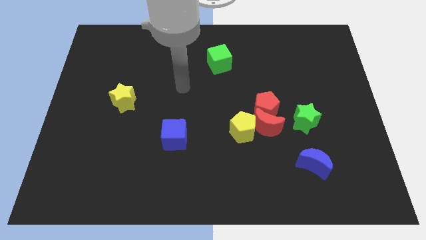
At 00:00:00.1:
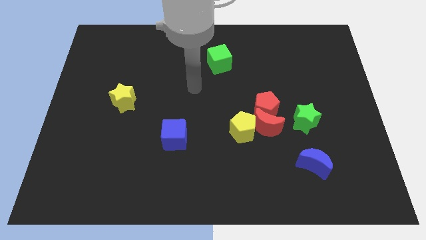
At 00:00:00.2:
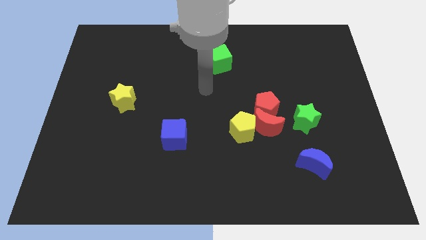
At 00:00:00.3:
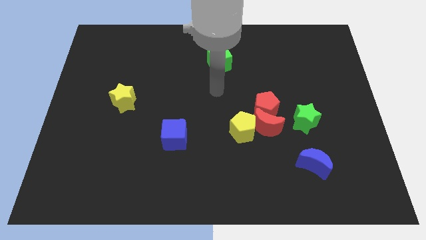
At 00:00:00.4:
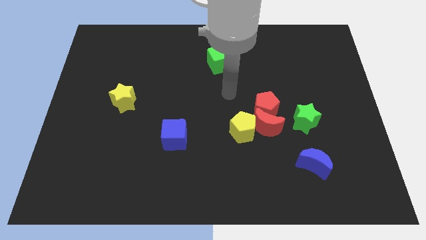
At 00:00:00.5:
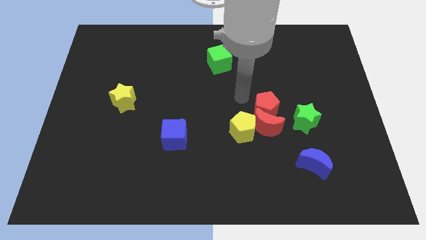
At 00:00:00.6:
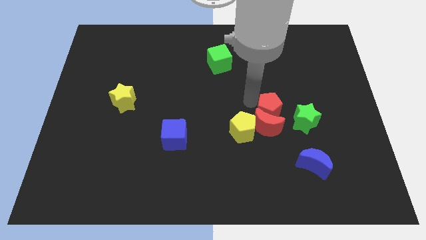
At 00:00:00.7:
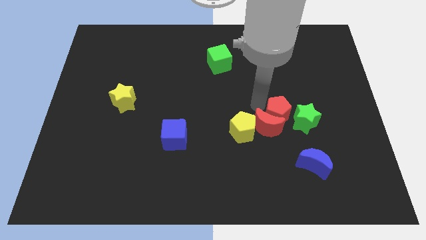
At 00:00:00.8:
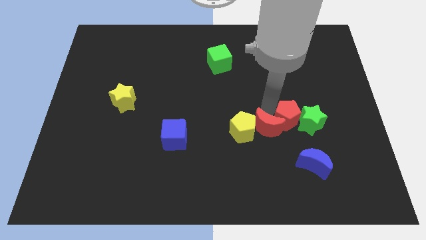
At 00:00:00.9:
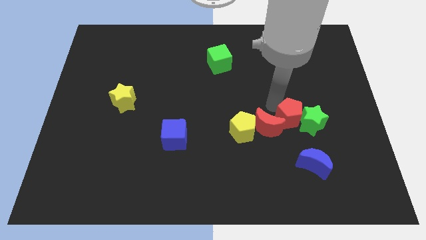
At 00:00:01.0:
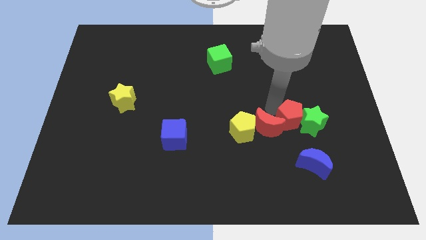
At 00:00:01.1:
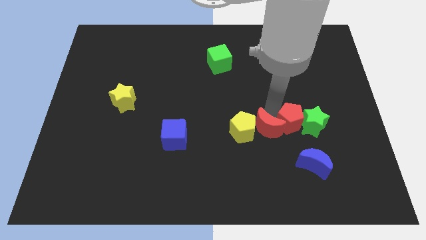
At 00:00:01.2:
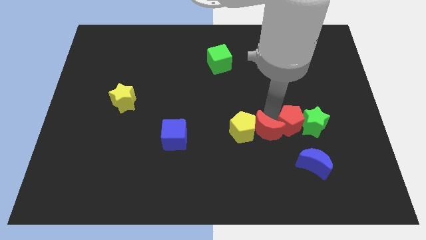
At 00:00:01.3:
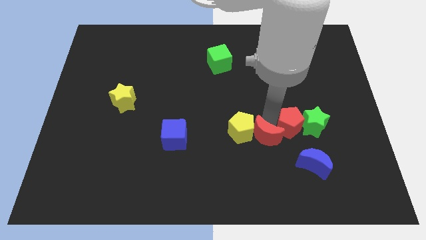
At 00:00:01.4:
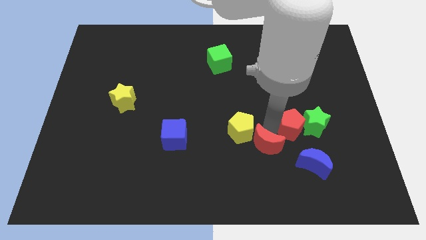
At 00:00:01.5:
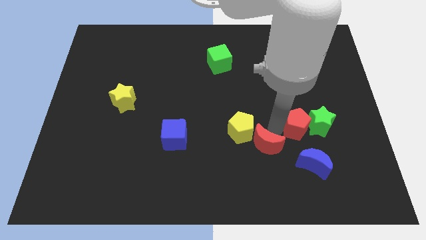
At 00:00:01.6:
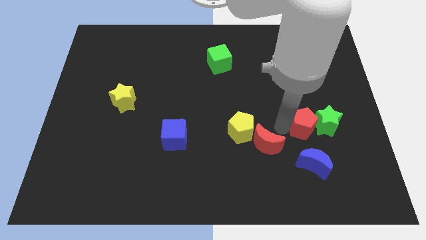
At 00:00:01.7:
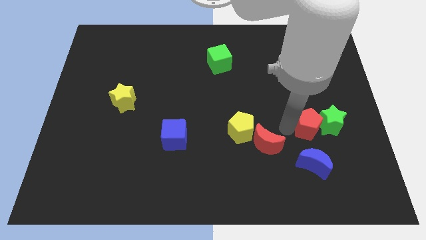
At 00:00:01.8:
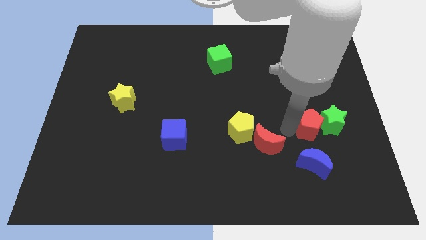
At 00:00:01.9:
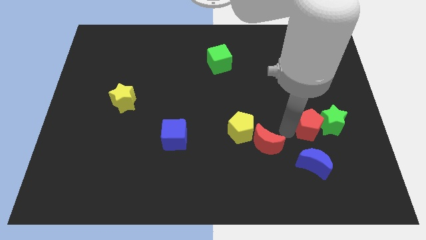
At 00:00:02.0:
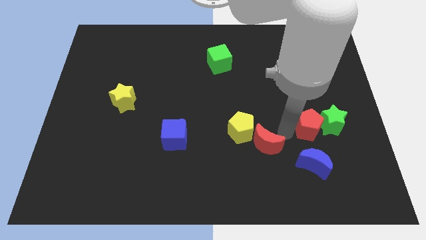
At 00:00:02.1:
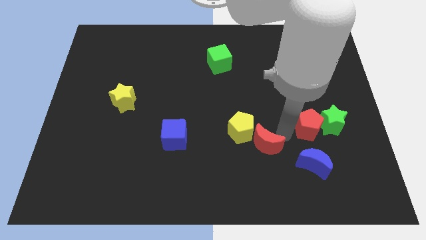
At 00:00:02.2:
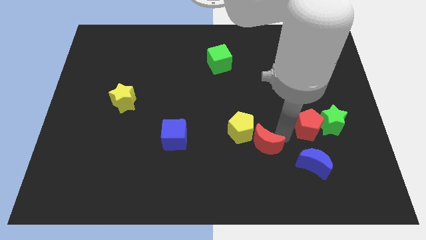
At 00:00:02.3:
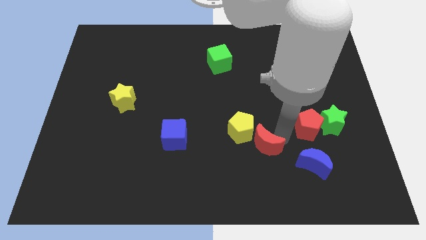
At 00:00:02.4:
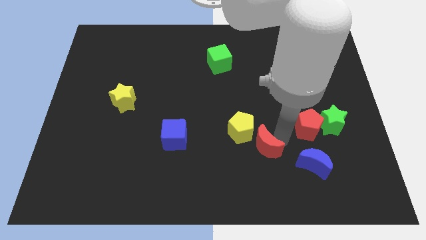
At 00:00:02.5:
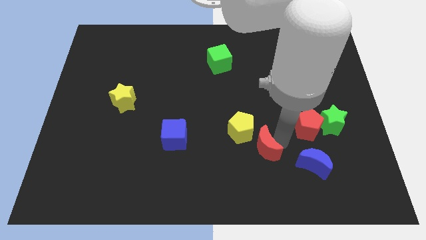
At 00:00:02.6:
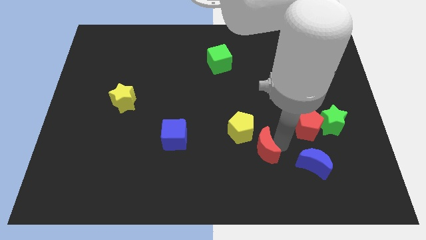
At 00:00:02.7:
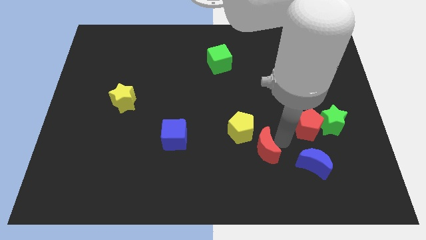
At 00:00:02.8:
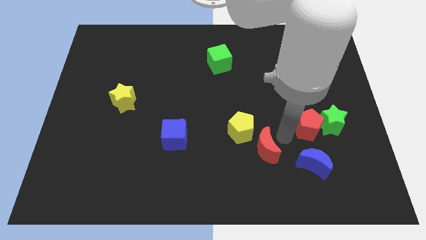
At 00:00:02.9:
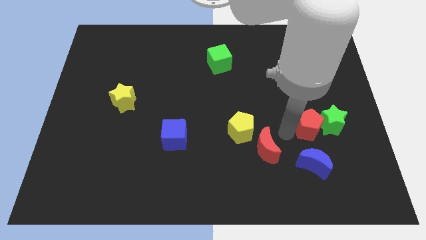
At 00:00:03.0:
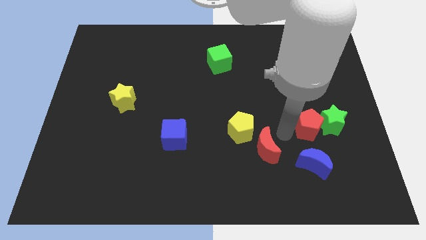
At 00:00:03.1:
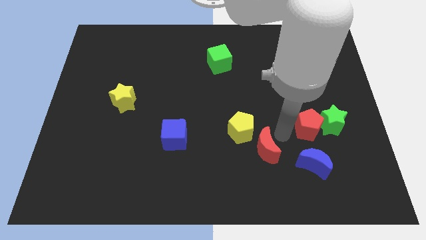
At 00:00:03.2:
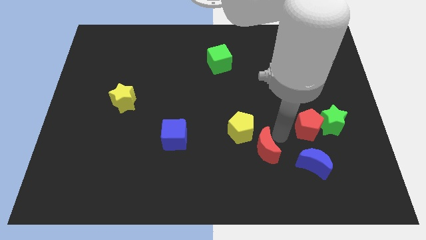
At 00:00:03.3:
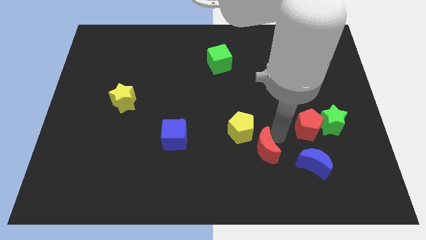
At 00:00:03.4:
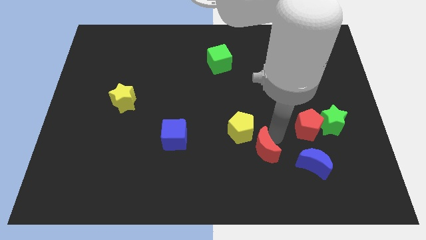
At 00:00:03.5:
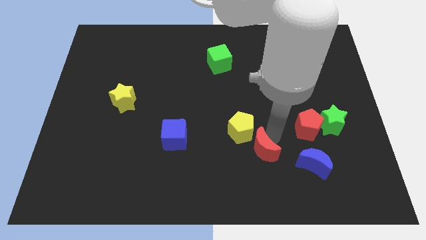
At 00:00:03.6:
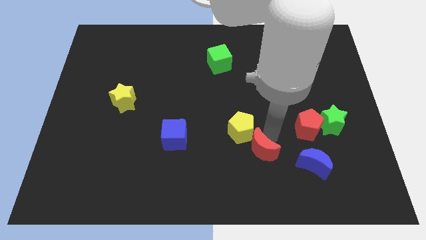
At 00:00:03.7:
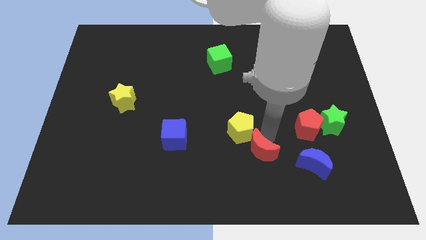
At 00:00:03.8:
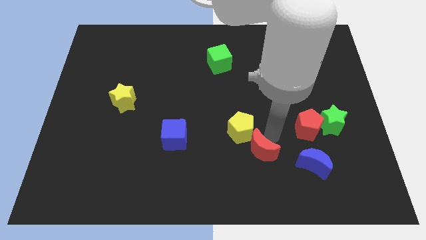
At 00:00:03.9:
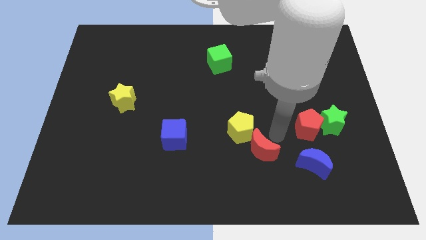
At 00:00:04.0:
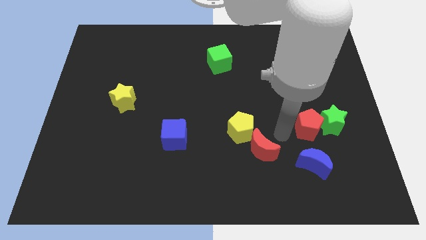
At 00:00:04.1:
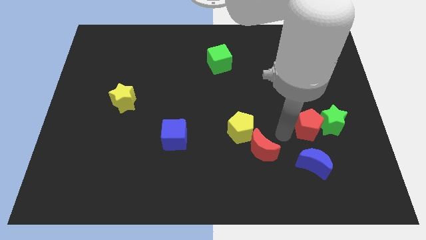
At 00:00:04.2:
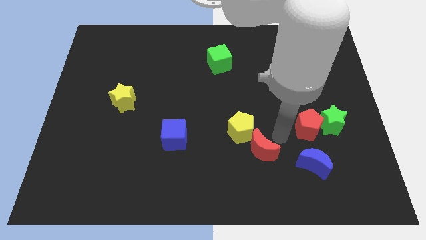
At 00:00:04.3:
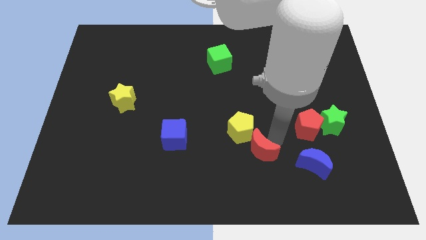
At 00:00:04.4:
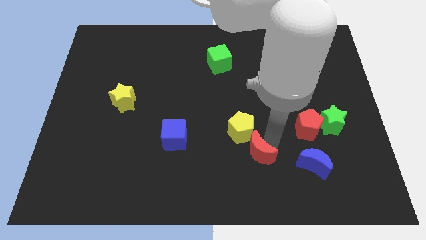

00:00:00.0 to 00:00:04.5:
separate the red moon from the red pentagon, yellow pentagon, and green star

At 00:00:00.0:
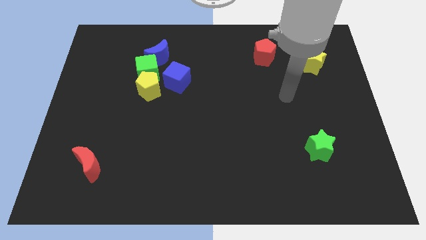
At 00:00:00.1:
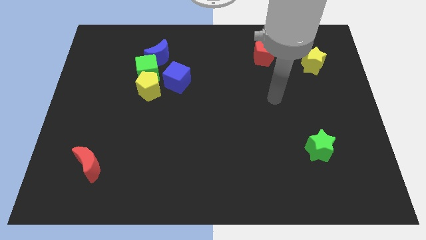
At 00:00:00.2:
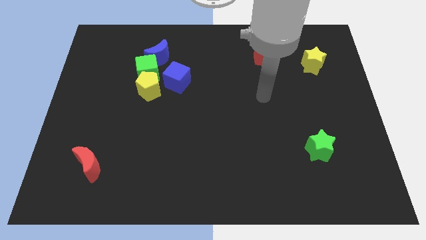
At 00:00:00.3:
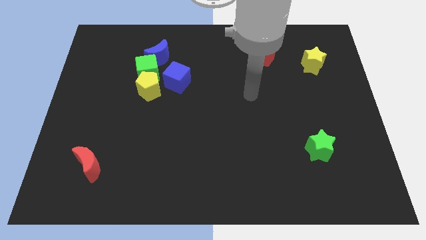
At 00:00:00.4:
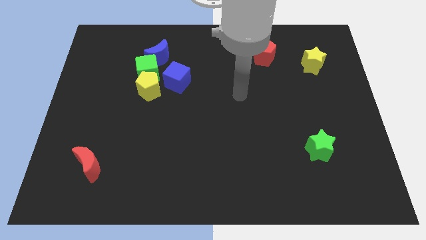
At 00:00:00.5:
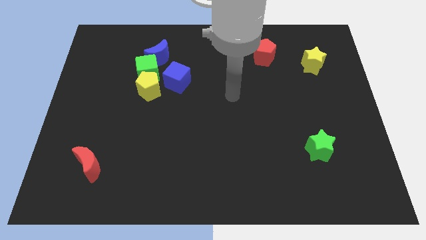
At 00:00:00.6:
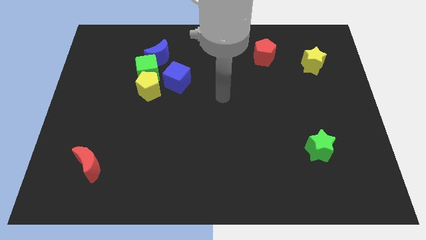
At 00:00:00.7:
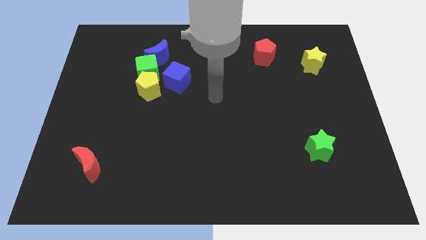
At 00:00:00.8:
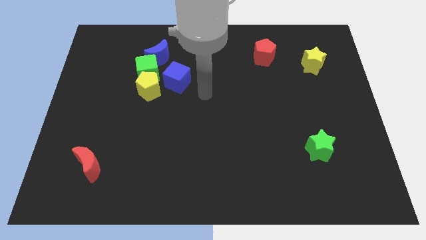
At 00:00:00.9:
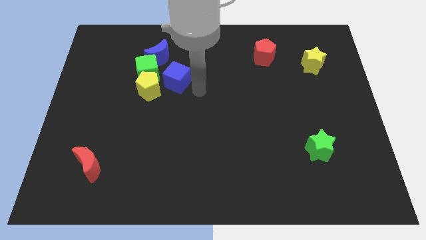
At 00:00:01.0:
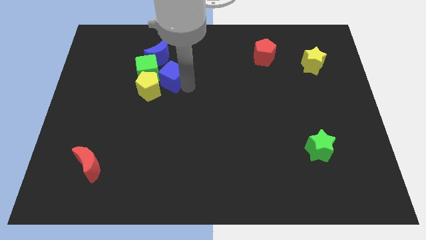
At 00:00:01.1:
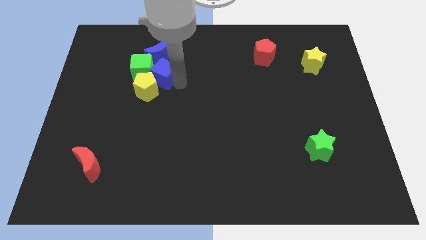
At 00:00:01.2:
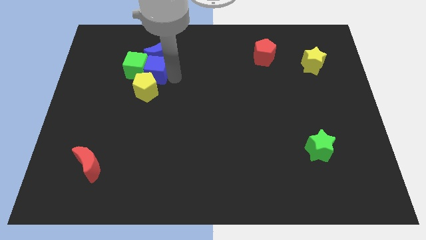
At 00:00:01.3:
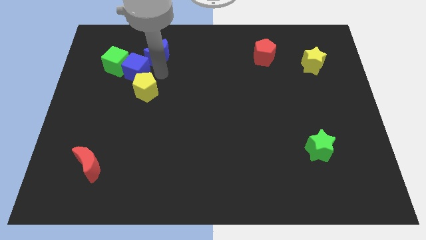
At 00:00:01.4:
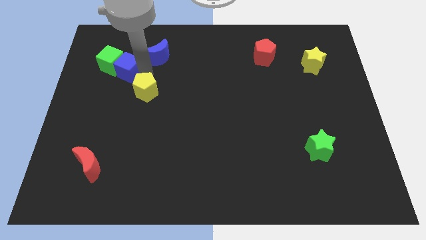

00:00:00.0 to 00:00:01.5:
pull the yellow pentagon apart from the green cube and blue cube

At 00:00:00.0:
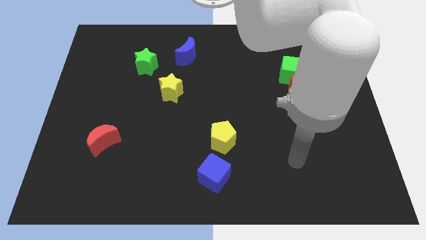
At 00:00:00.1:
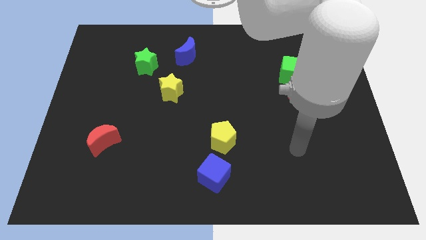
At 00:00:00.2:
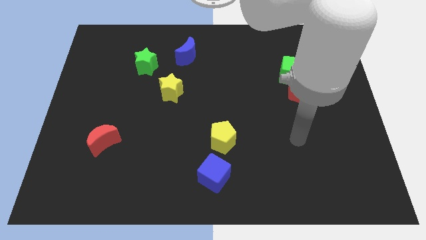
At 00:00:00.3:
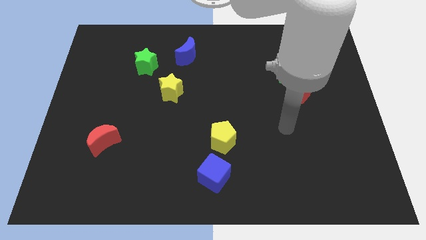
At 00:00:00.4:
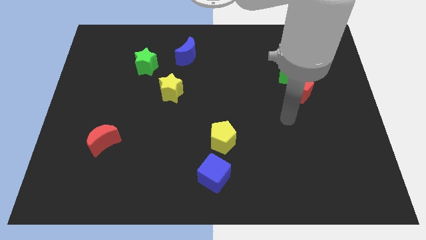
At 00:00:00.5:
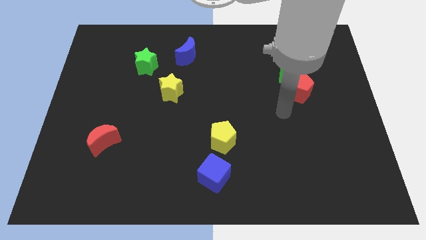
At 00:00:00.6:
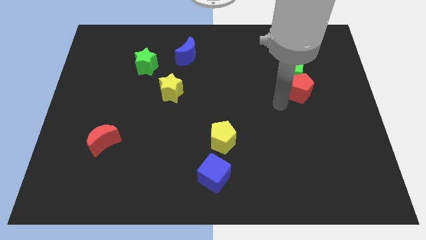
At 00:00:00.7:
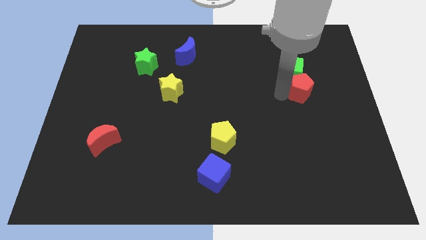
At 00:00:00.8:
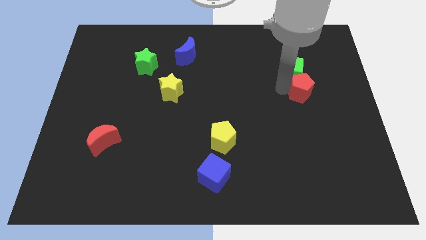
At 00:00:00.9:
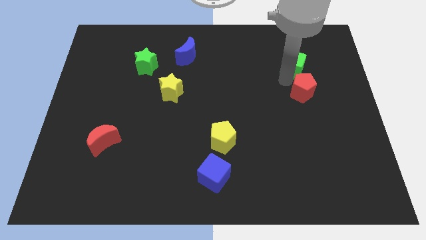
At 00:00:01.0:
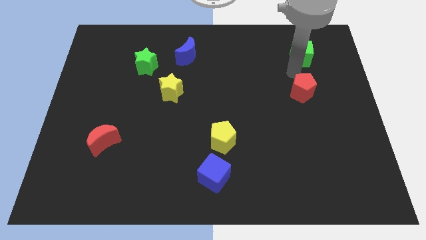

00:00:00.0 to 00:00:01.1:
move the red pentagon away from the green cube

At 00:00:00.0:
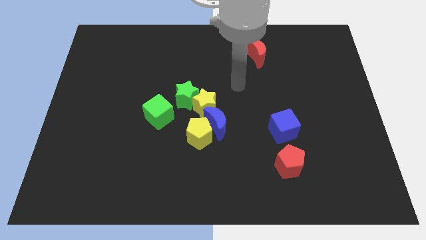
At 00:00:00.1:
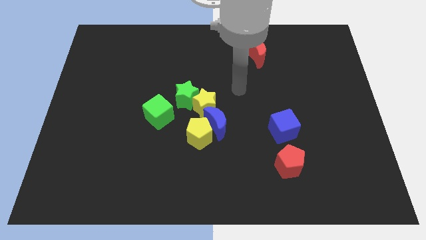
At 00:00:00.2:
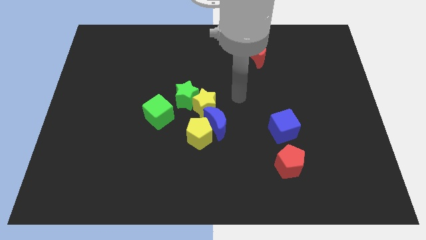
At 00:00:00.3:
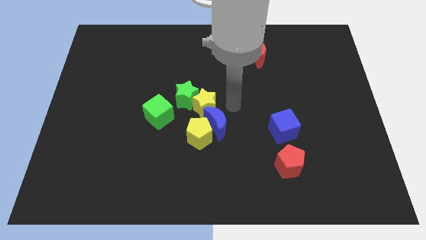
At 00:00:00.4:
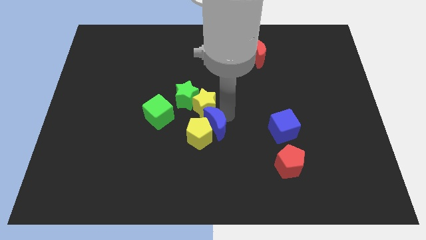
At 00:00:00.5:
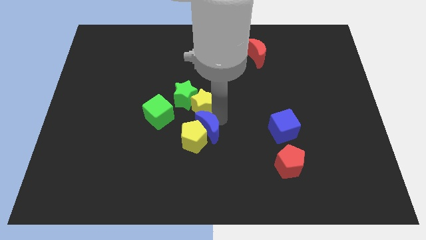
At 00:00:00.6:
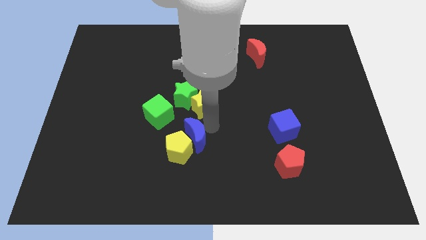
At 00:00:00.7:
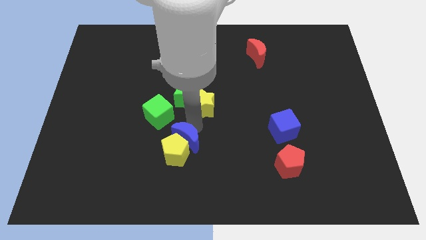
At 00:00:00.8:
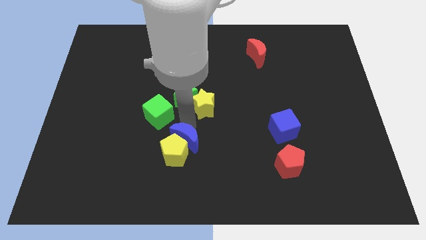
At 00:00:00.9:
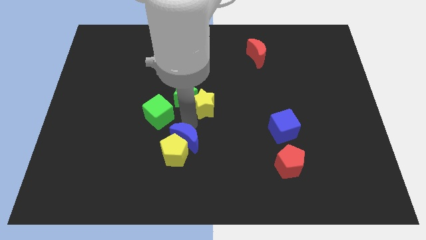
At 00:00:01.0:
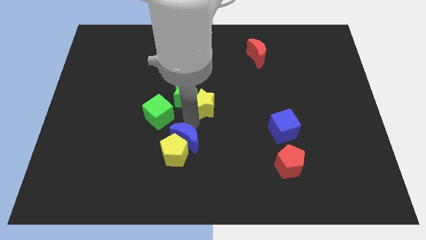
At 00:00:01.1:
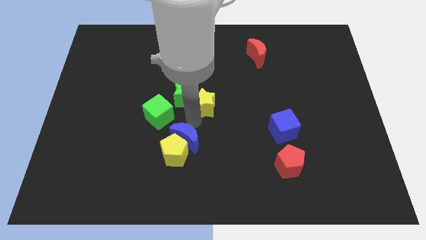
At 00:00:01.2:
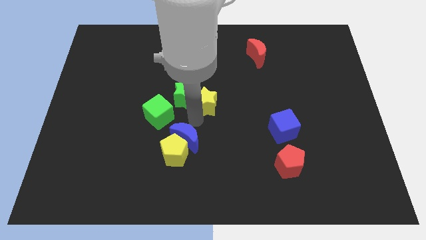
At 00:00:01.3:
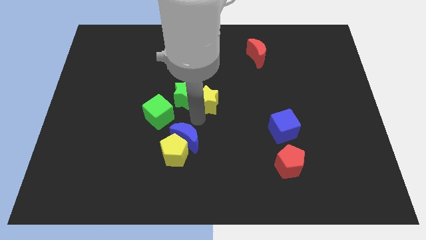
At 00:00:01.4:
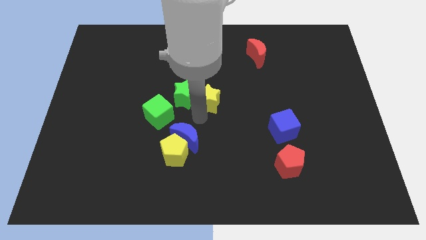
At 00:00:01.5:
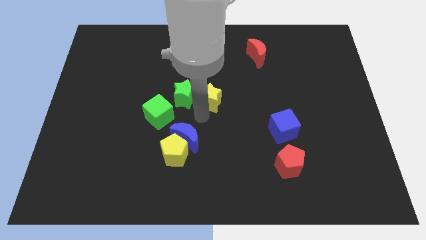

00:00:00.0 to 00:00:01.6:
separate the yellow star from the group of blocks

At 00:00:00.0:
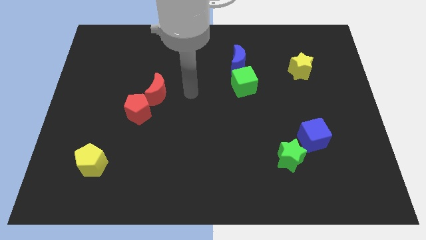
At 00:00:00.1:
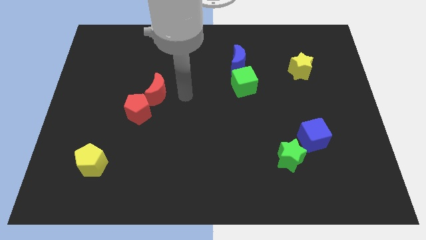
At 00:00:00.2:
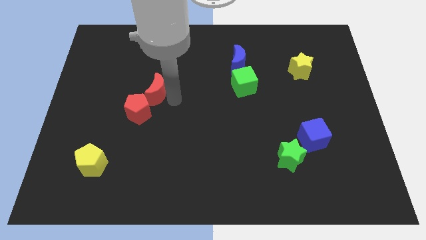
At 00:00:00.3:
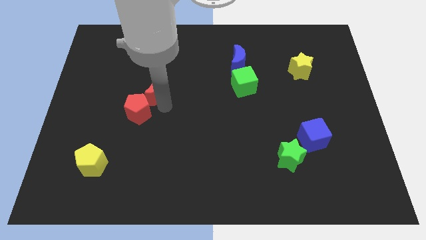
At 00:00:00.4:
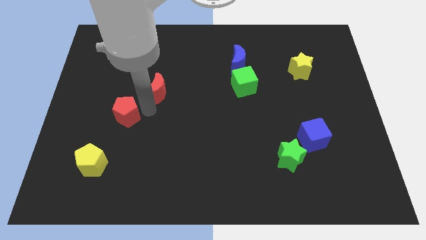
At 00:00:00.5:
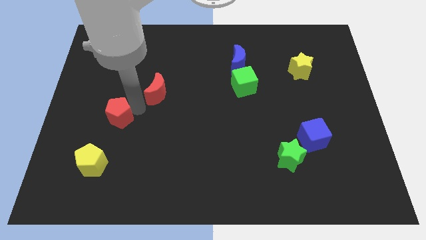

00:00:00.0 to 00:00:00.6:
pull the red moon apart from the red pentagon
